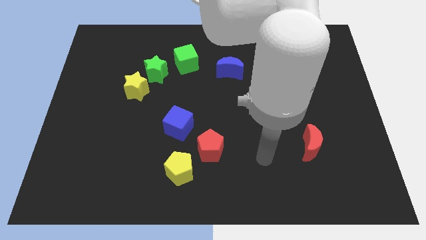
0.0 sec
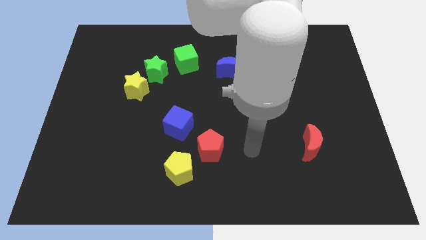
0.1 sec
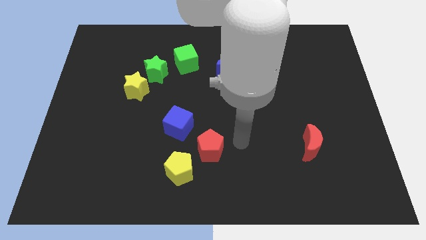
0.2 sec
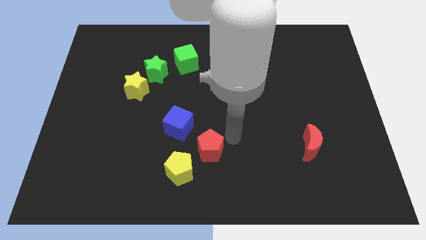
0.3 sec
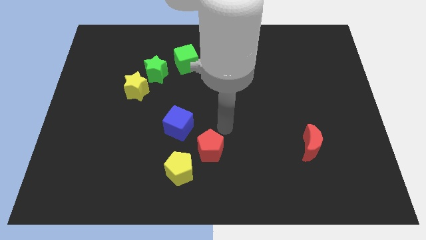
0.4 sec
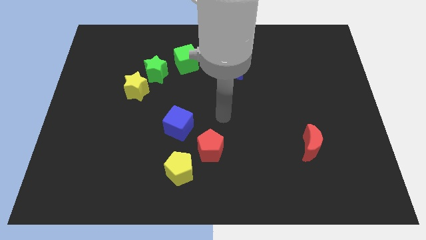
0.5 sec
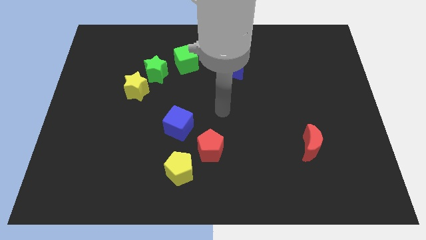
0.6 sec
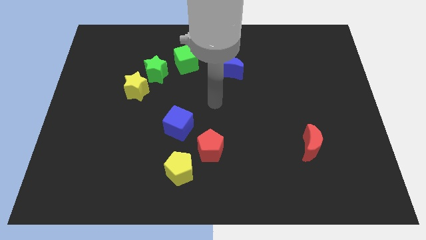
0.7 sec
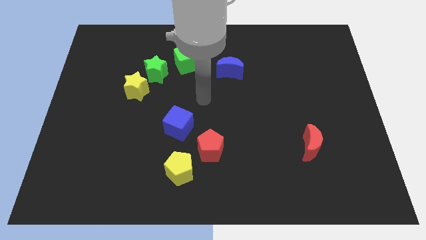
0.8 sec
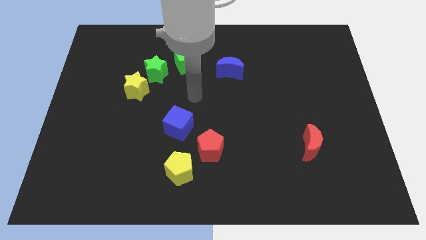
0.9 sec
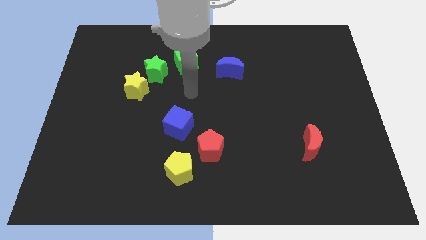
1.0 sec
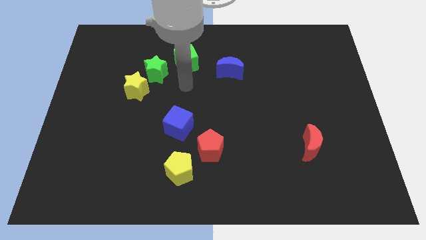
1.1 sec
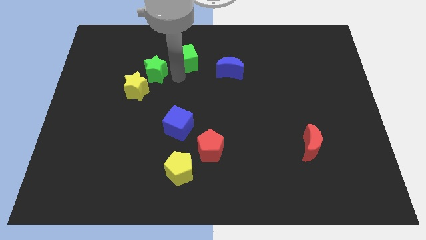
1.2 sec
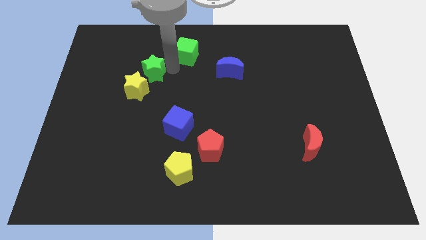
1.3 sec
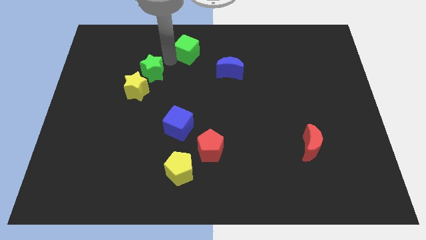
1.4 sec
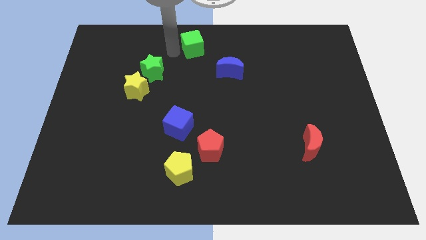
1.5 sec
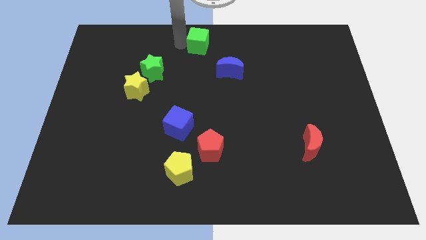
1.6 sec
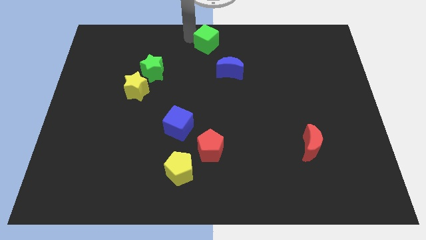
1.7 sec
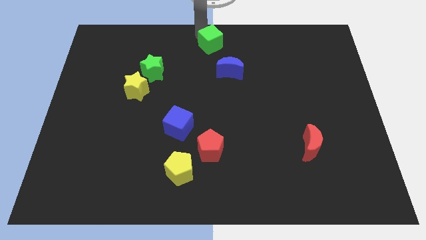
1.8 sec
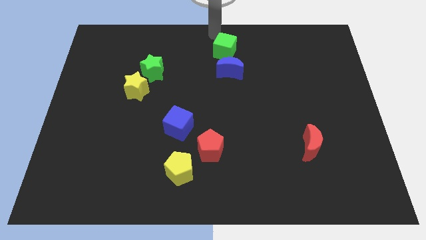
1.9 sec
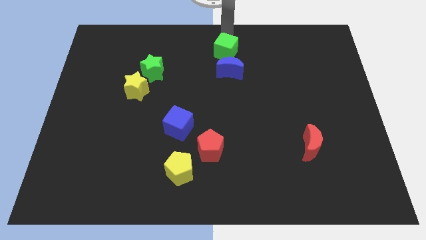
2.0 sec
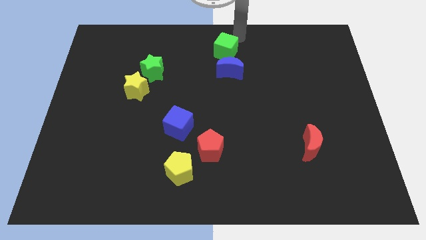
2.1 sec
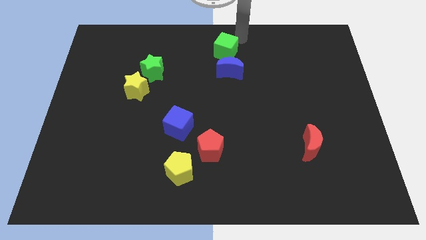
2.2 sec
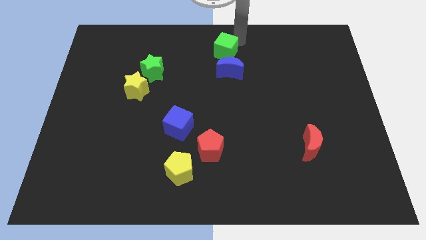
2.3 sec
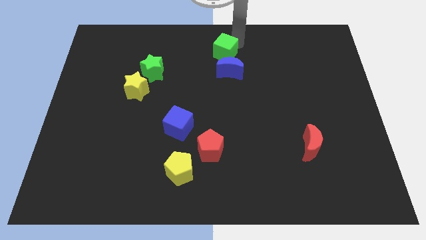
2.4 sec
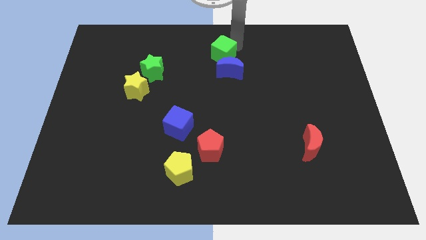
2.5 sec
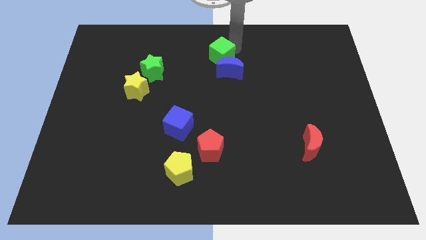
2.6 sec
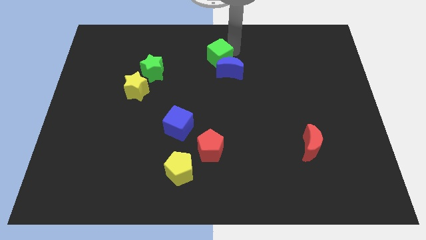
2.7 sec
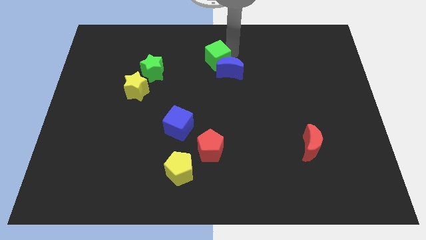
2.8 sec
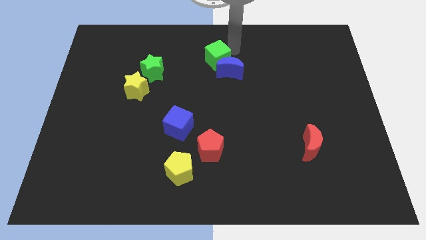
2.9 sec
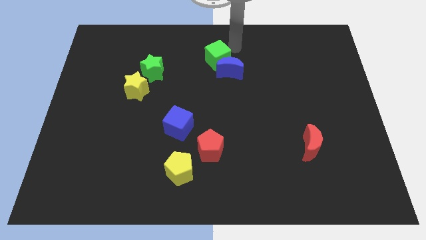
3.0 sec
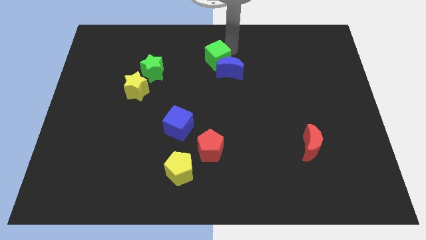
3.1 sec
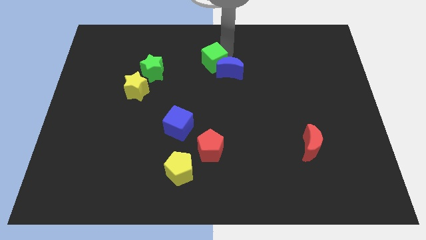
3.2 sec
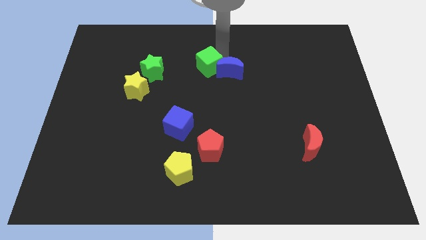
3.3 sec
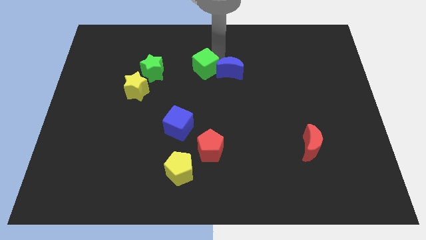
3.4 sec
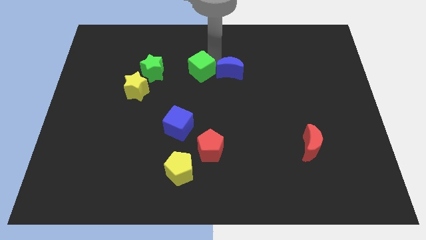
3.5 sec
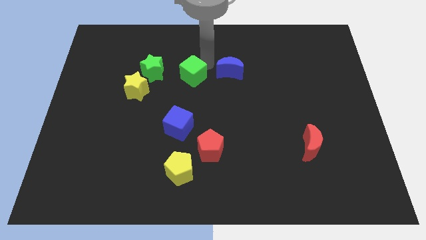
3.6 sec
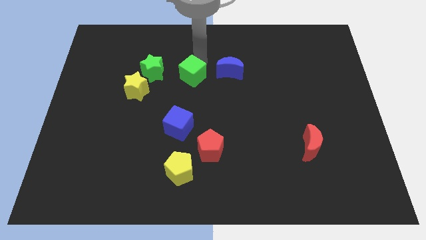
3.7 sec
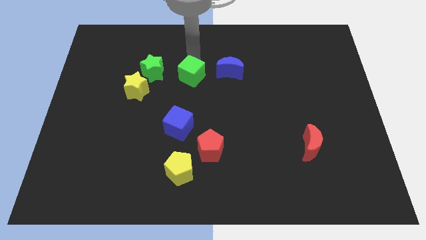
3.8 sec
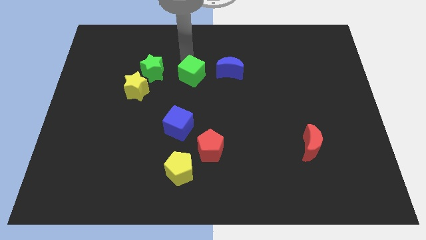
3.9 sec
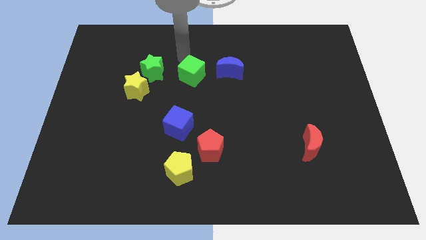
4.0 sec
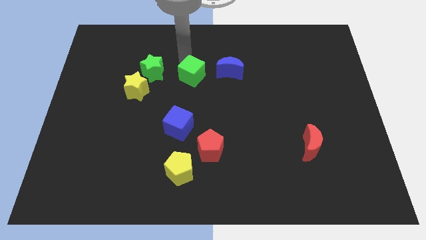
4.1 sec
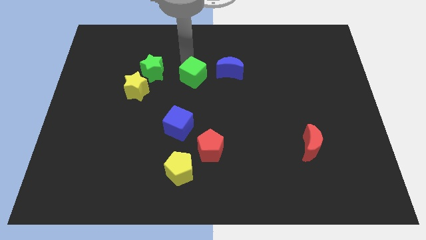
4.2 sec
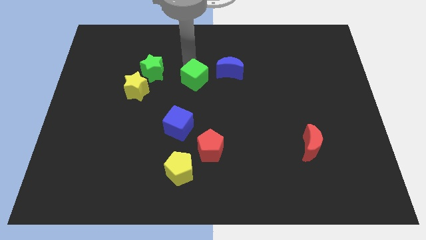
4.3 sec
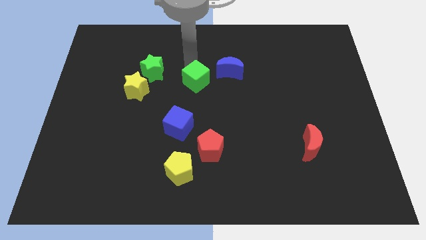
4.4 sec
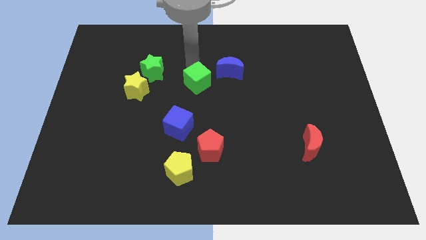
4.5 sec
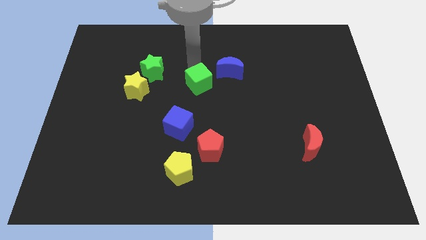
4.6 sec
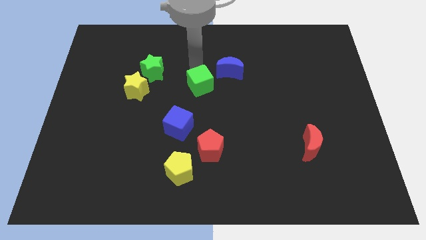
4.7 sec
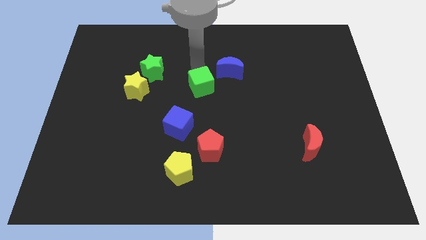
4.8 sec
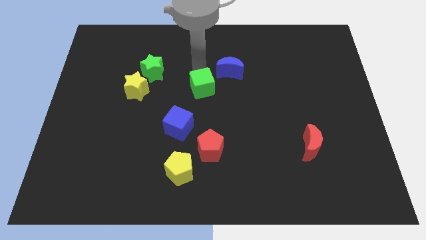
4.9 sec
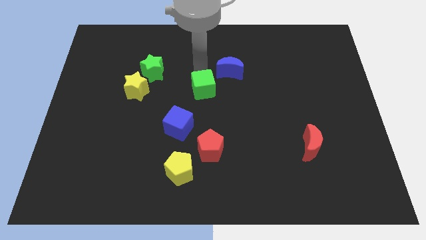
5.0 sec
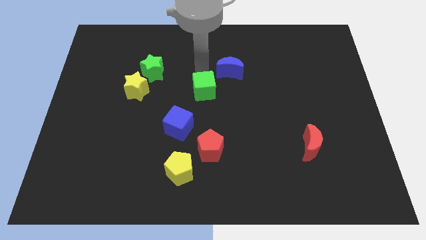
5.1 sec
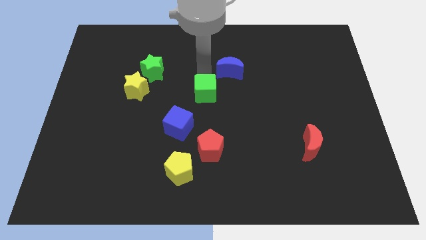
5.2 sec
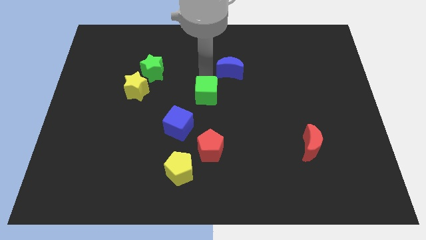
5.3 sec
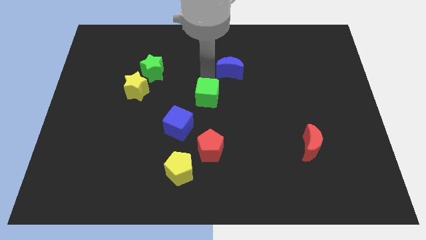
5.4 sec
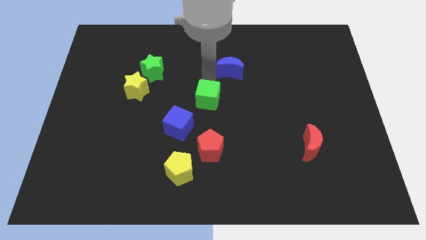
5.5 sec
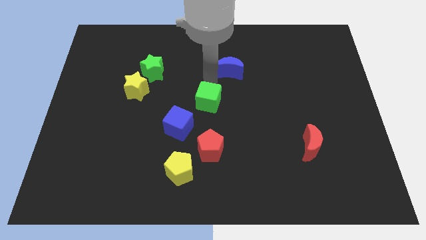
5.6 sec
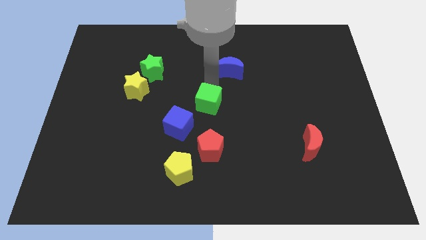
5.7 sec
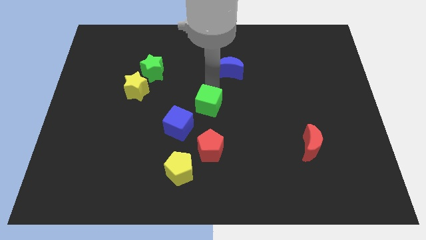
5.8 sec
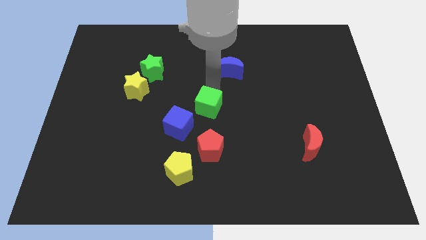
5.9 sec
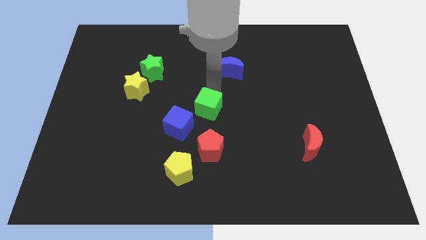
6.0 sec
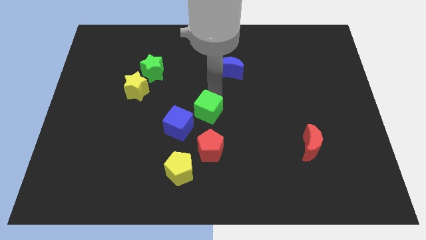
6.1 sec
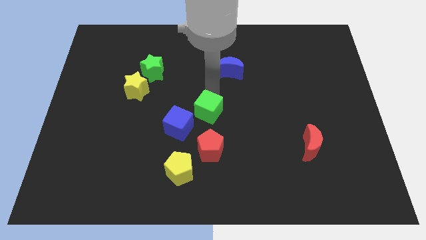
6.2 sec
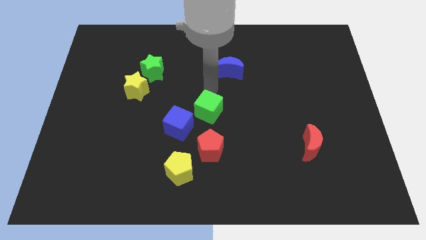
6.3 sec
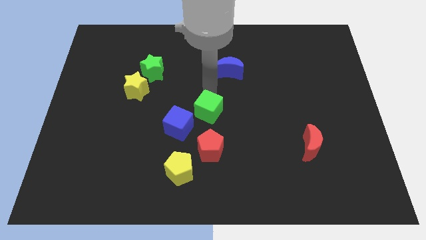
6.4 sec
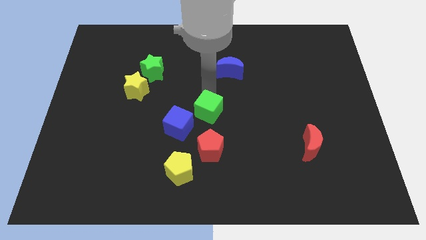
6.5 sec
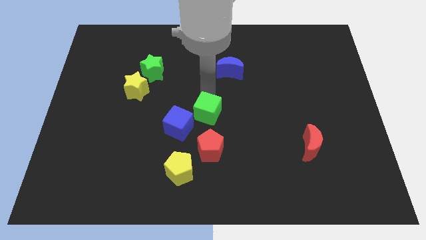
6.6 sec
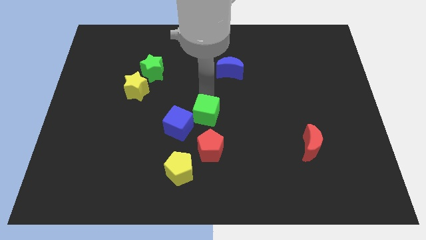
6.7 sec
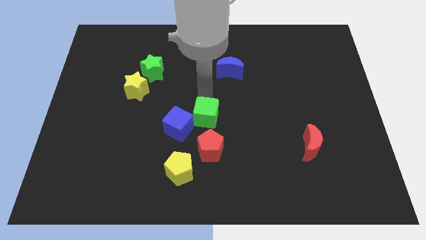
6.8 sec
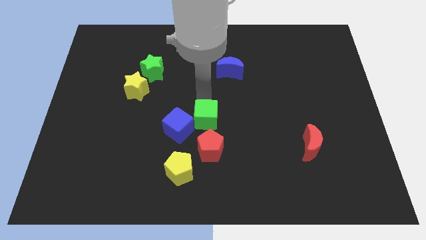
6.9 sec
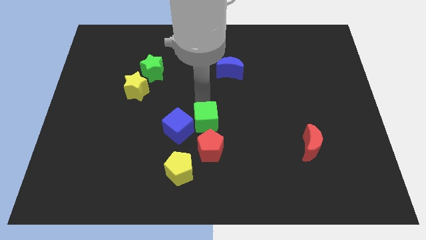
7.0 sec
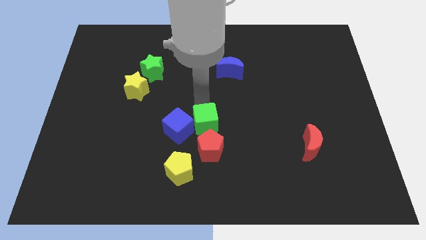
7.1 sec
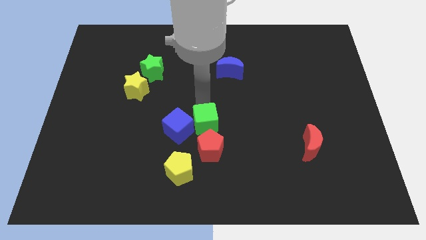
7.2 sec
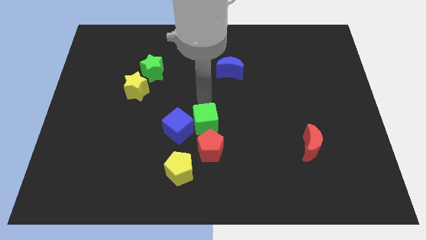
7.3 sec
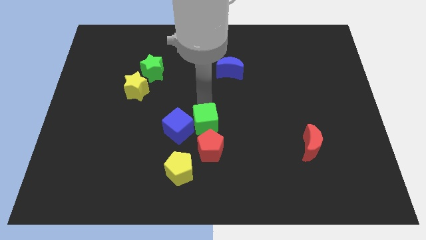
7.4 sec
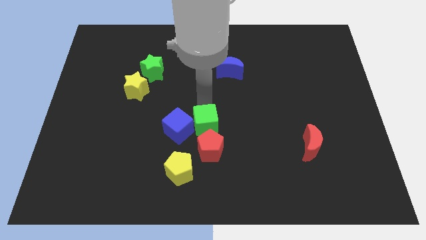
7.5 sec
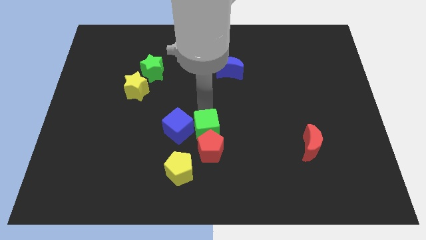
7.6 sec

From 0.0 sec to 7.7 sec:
move the green cube next to the red pentagon
